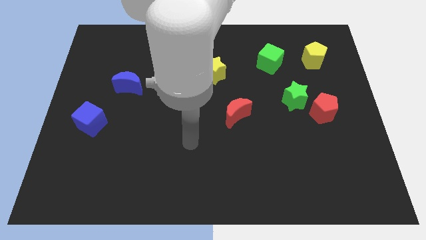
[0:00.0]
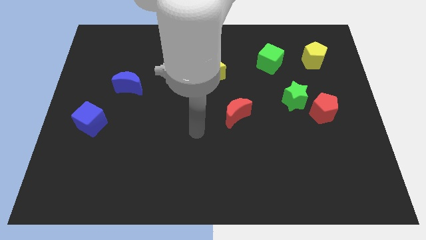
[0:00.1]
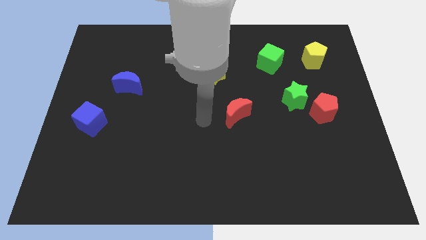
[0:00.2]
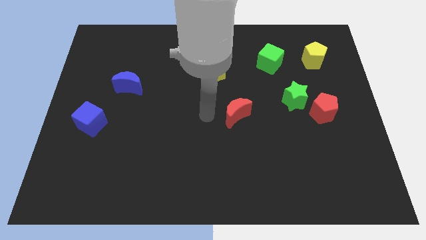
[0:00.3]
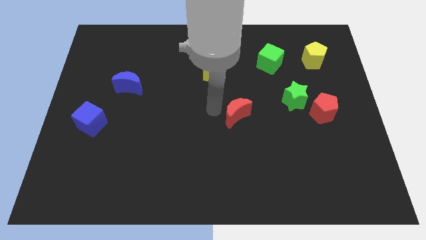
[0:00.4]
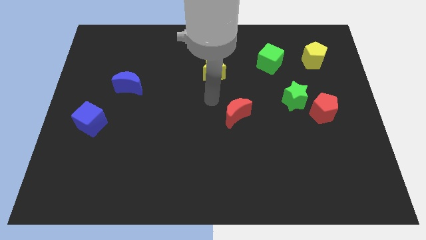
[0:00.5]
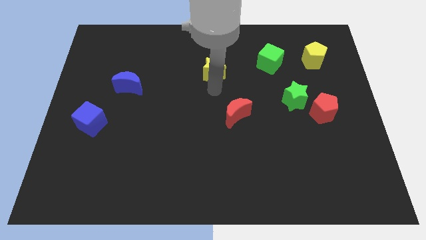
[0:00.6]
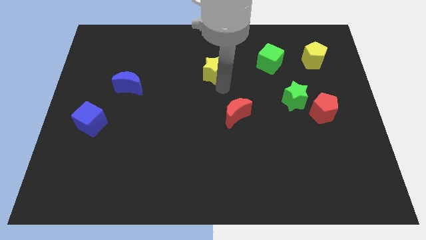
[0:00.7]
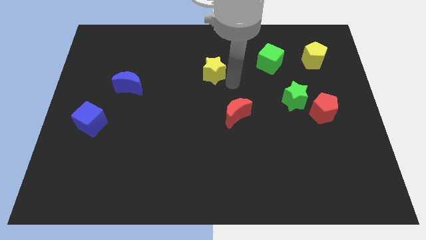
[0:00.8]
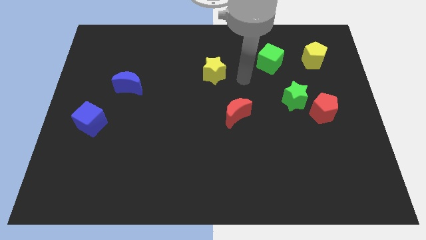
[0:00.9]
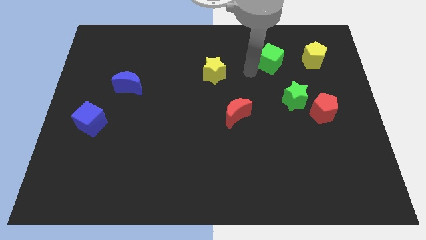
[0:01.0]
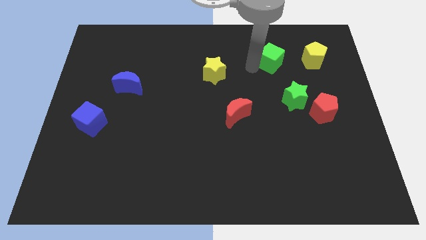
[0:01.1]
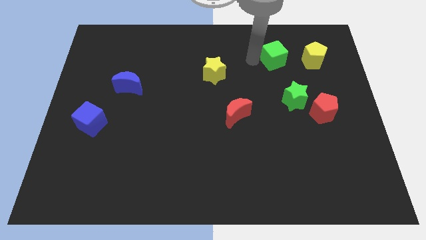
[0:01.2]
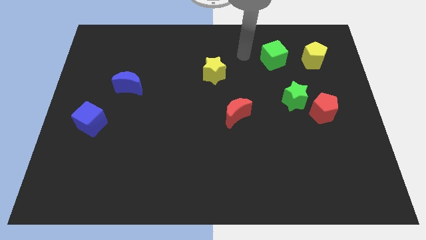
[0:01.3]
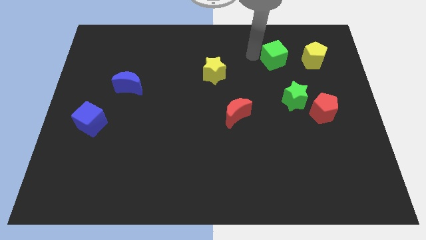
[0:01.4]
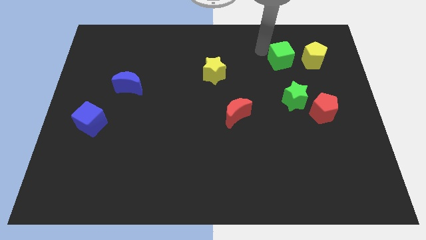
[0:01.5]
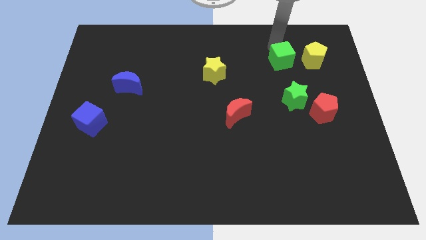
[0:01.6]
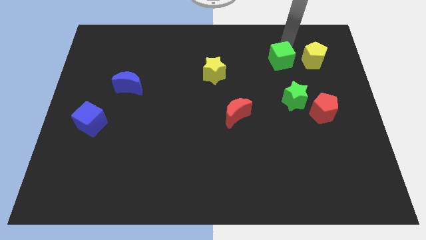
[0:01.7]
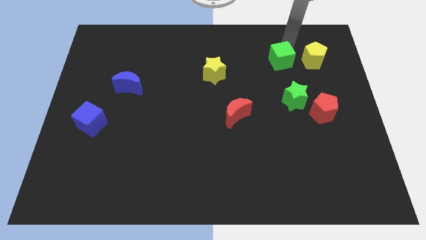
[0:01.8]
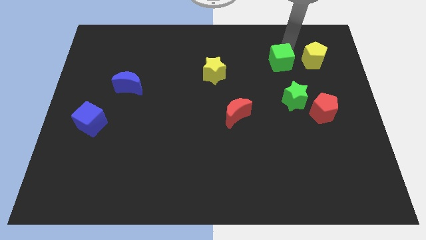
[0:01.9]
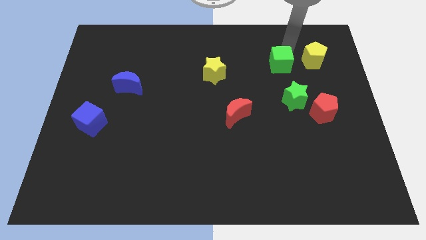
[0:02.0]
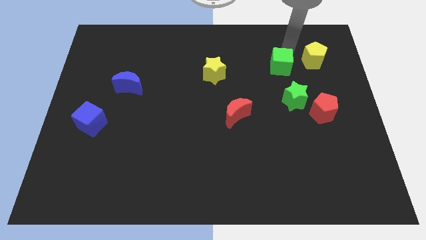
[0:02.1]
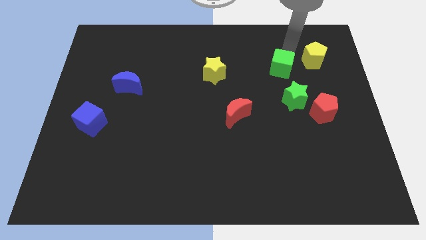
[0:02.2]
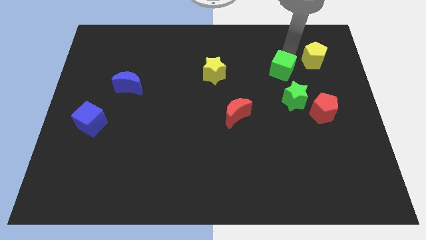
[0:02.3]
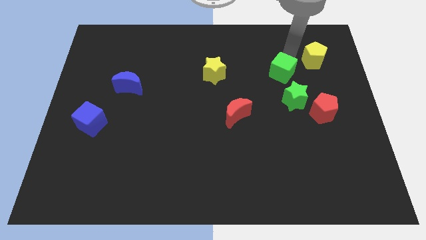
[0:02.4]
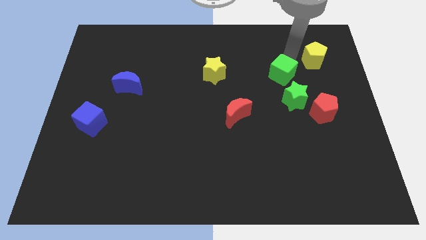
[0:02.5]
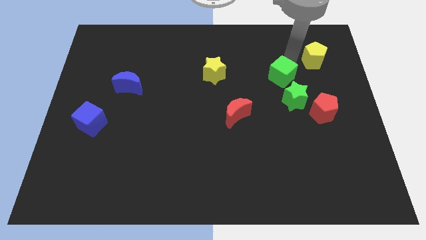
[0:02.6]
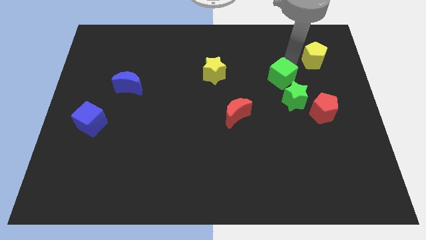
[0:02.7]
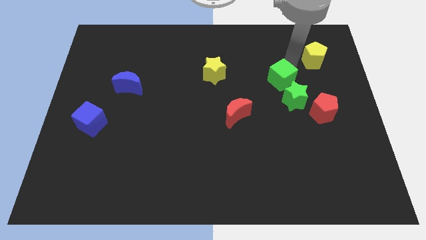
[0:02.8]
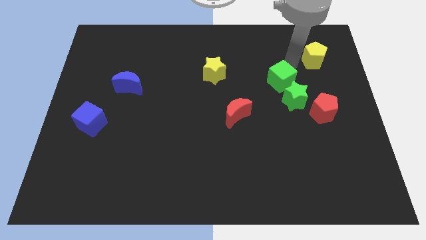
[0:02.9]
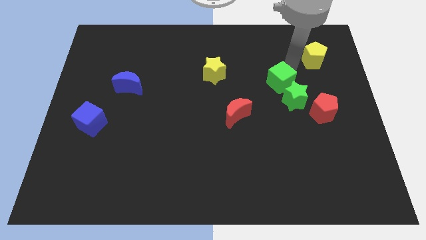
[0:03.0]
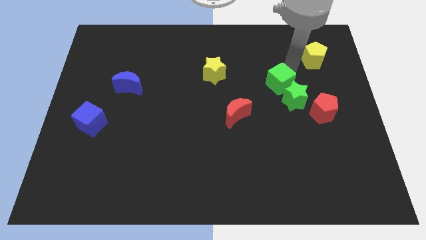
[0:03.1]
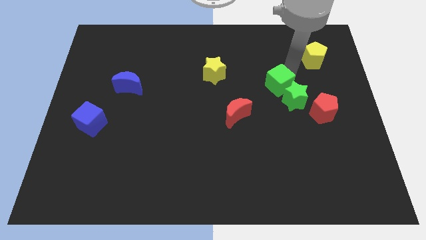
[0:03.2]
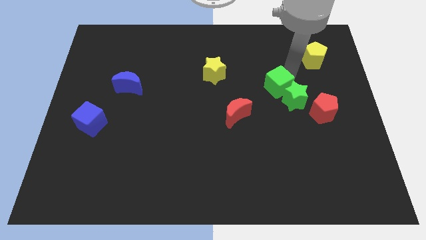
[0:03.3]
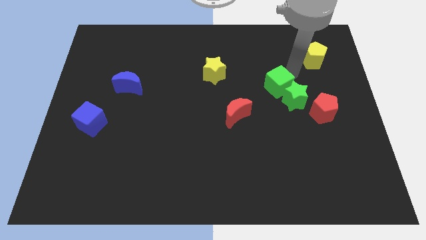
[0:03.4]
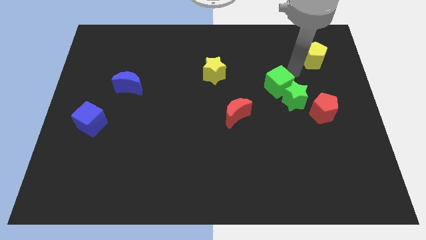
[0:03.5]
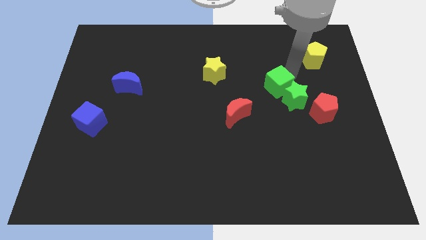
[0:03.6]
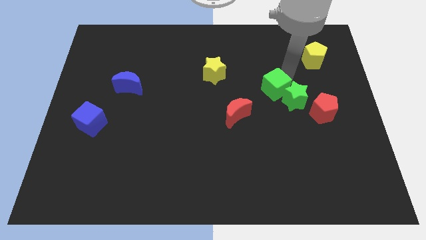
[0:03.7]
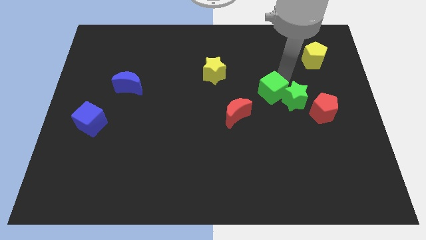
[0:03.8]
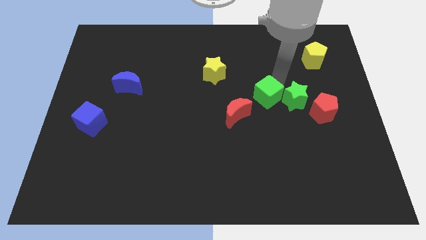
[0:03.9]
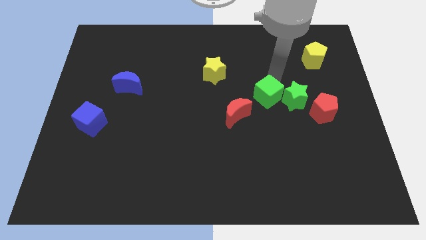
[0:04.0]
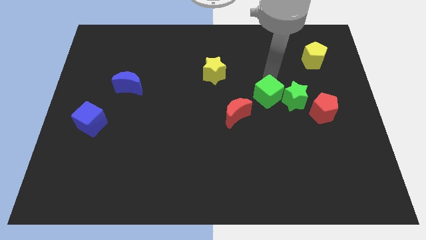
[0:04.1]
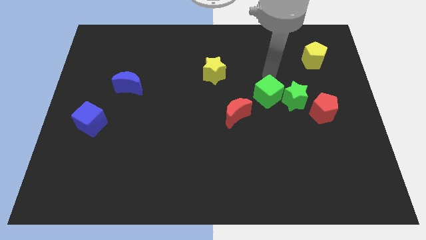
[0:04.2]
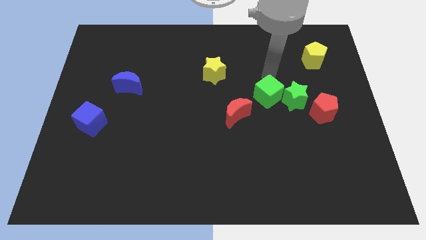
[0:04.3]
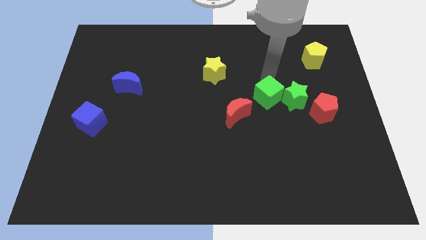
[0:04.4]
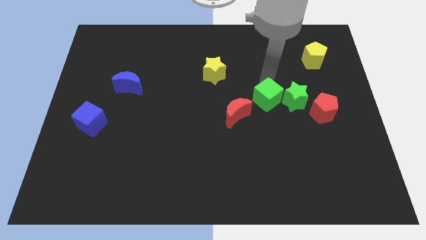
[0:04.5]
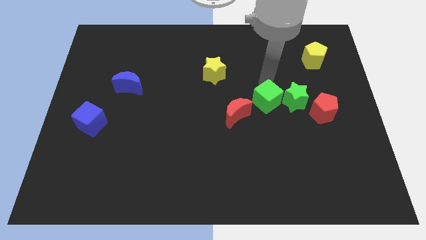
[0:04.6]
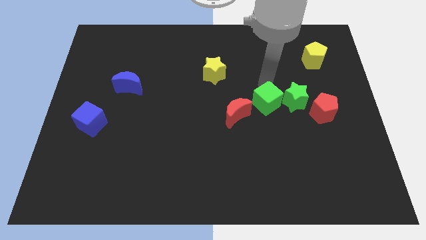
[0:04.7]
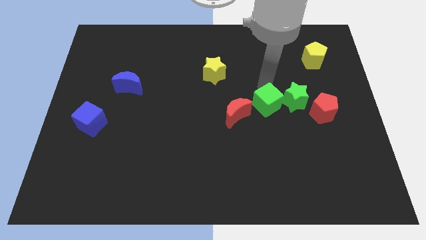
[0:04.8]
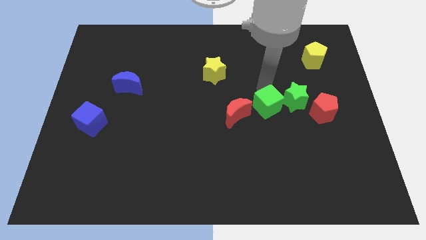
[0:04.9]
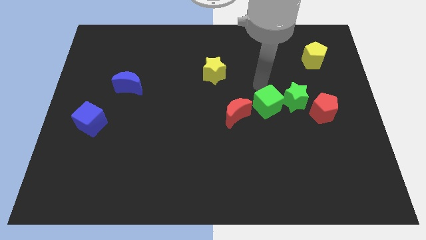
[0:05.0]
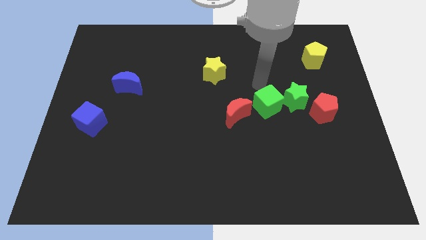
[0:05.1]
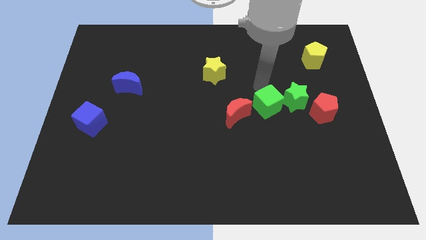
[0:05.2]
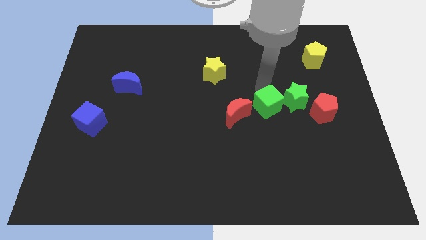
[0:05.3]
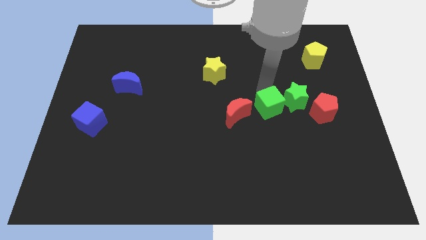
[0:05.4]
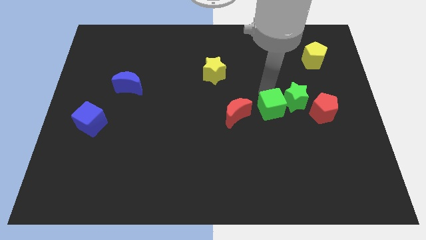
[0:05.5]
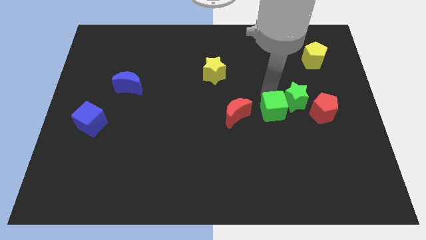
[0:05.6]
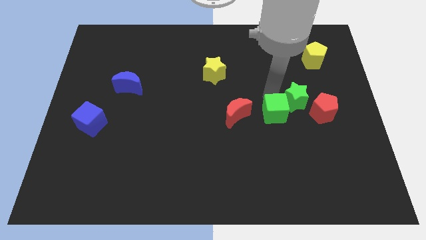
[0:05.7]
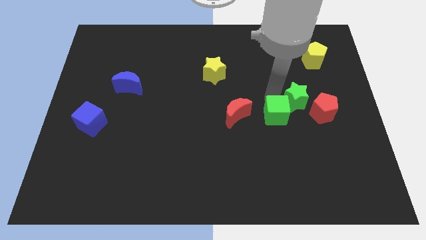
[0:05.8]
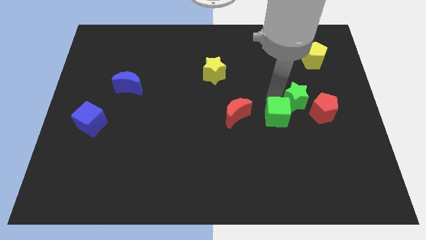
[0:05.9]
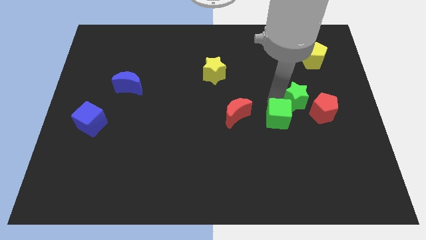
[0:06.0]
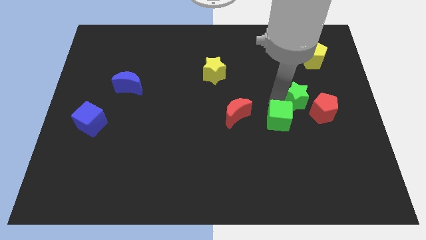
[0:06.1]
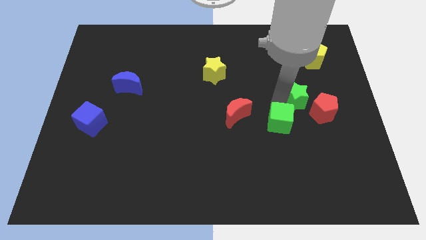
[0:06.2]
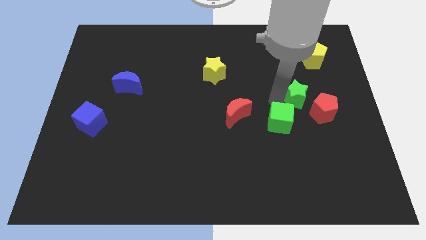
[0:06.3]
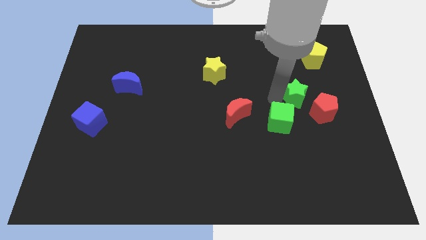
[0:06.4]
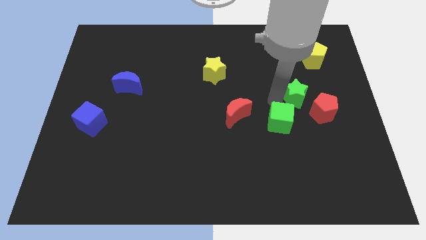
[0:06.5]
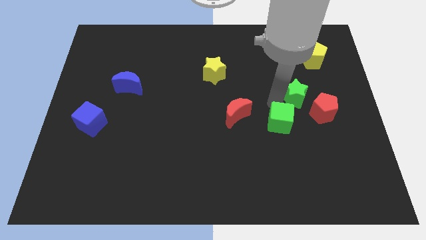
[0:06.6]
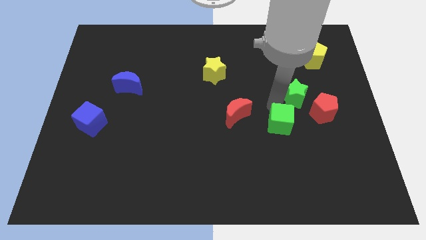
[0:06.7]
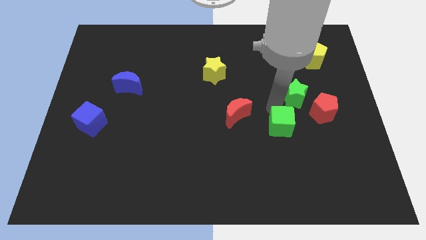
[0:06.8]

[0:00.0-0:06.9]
slide the green cube downwards

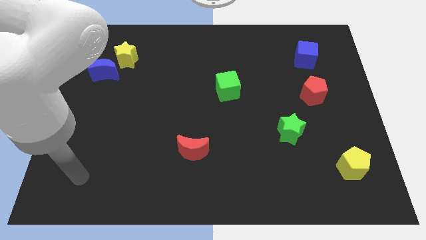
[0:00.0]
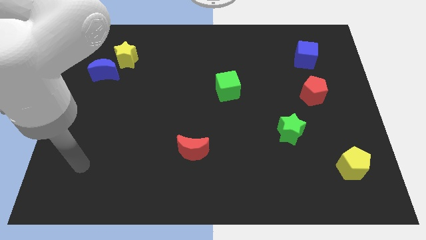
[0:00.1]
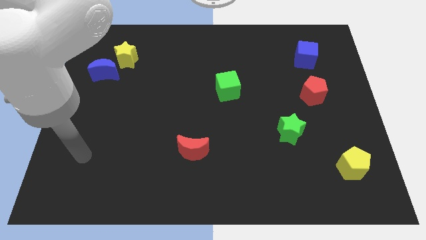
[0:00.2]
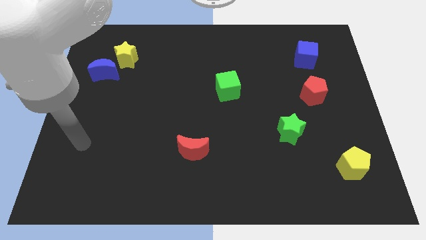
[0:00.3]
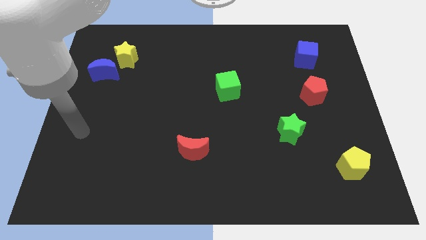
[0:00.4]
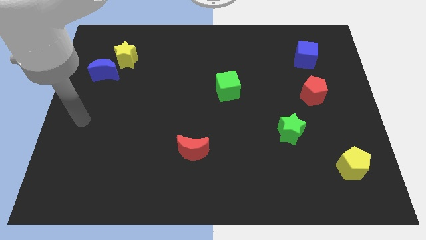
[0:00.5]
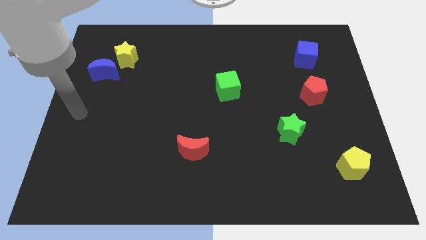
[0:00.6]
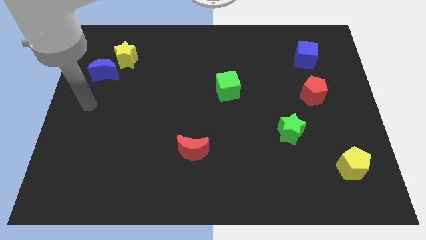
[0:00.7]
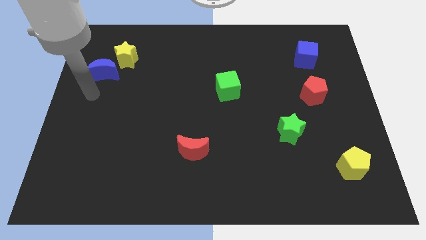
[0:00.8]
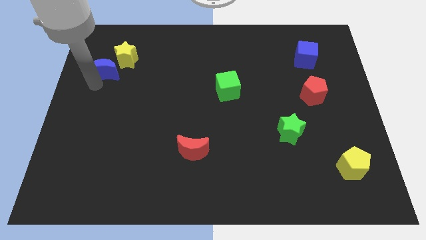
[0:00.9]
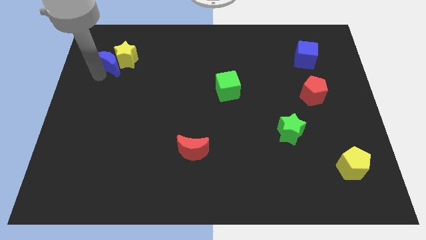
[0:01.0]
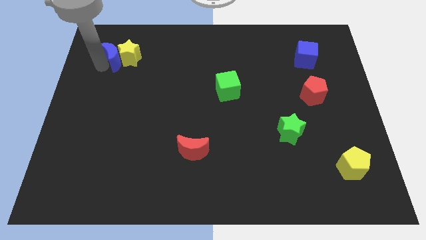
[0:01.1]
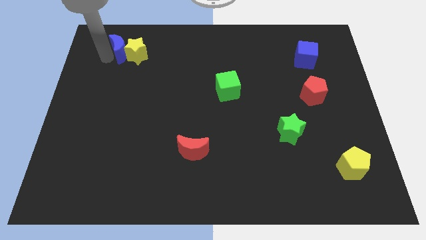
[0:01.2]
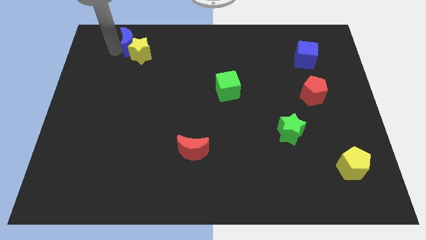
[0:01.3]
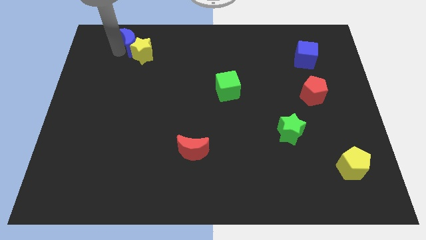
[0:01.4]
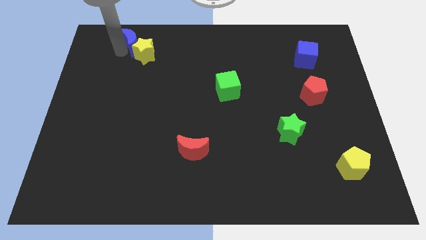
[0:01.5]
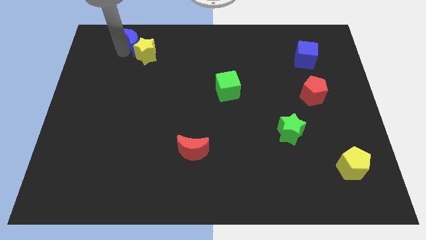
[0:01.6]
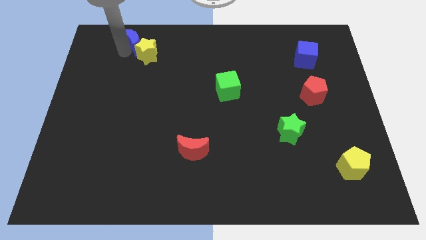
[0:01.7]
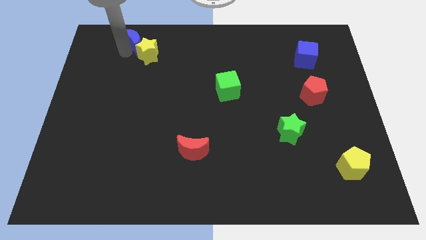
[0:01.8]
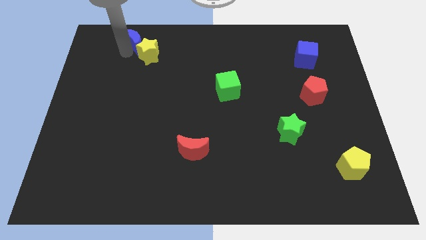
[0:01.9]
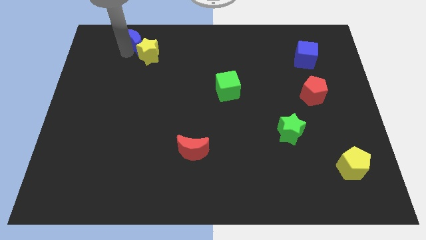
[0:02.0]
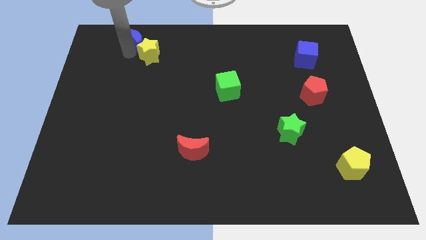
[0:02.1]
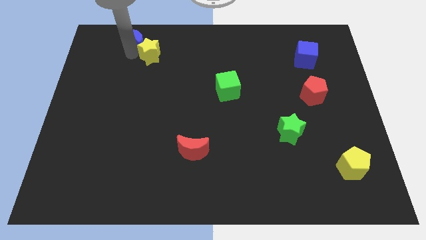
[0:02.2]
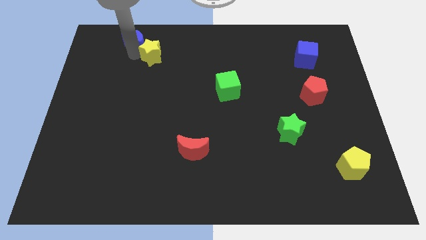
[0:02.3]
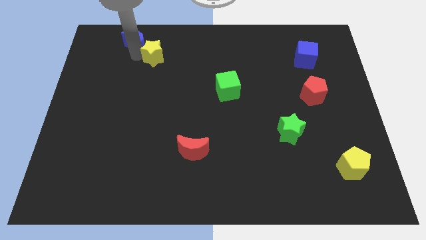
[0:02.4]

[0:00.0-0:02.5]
slide the yellow star to the right somewhat
